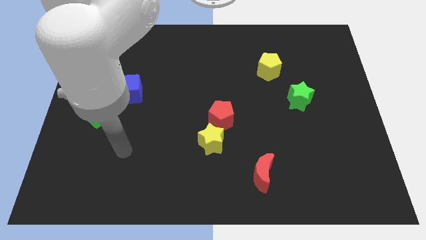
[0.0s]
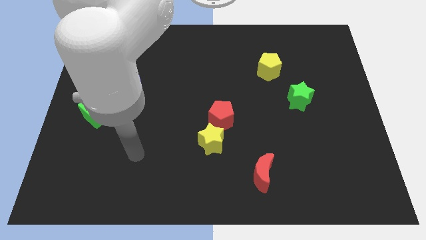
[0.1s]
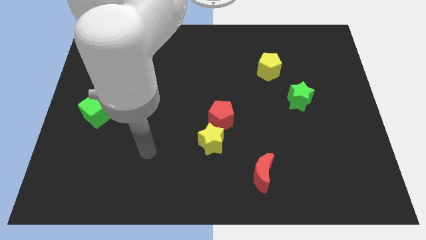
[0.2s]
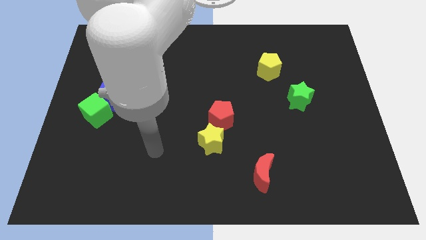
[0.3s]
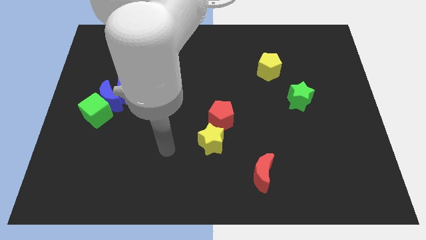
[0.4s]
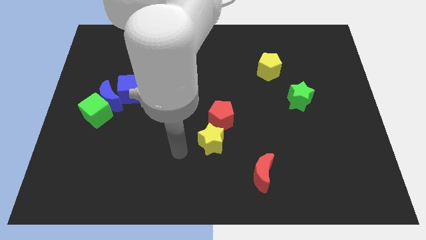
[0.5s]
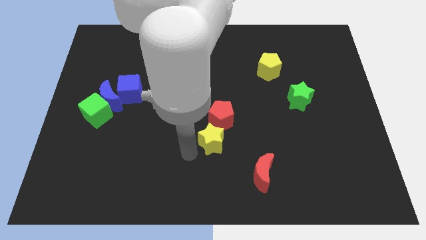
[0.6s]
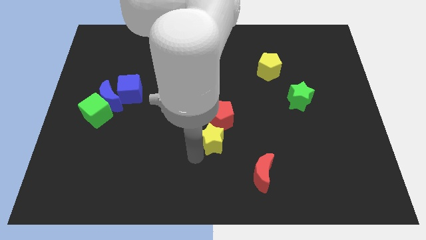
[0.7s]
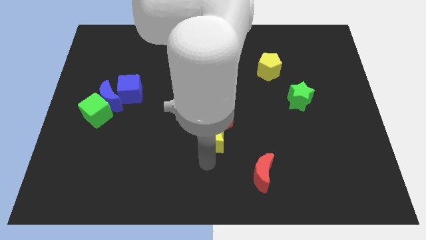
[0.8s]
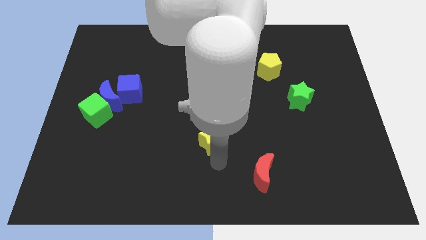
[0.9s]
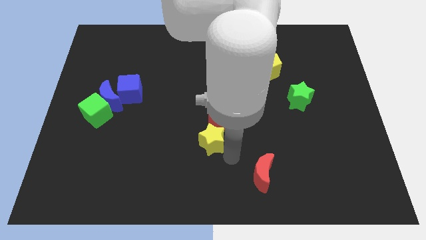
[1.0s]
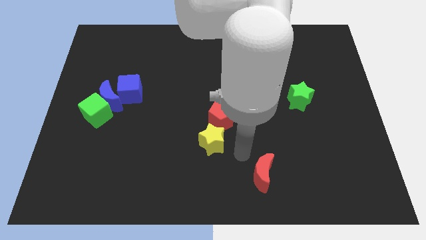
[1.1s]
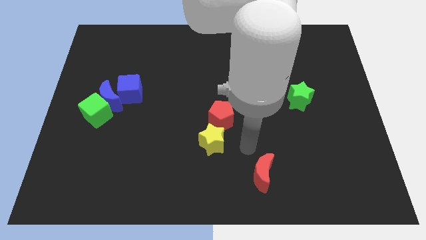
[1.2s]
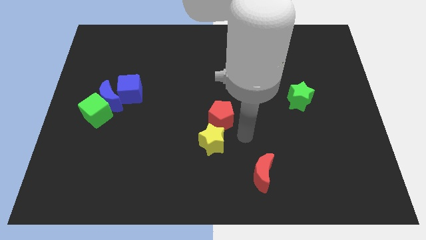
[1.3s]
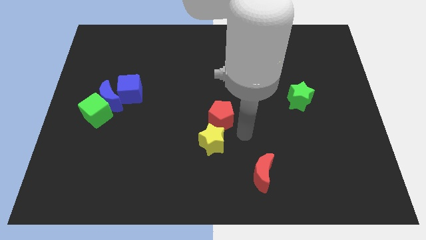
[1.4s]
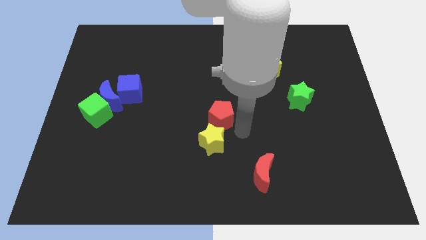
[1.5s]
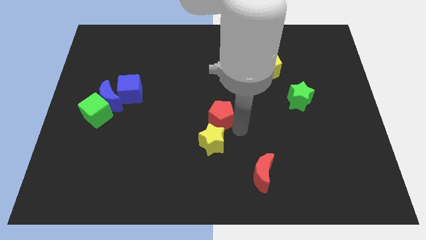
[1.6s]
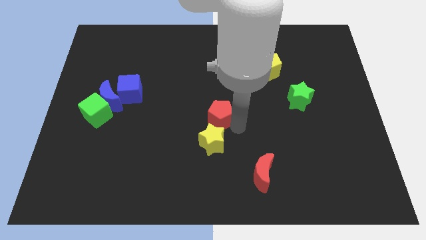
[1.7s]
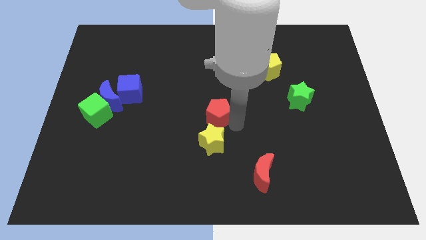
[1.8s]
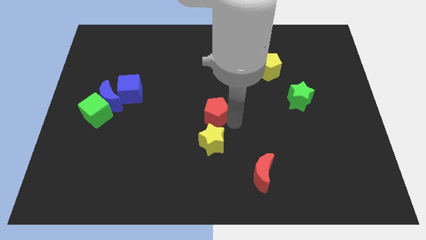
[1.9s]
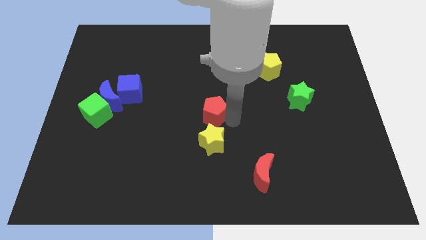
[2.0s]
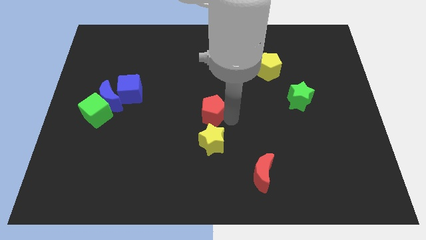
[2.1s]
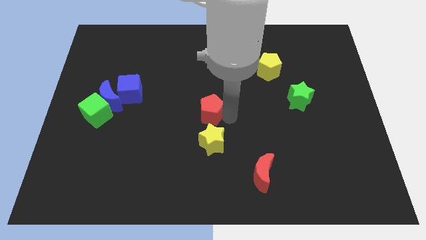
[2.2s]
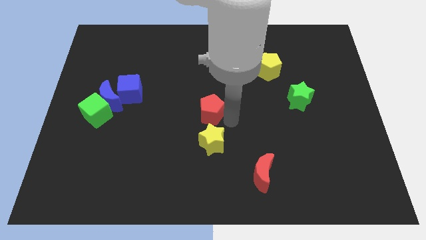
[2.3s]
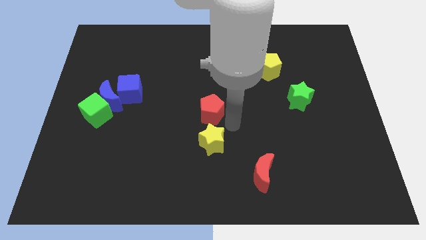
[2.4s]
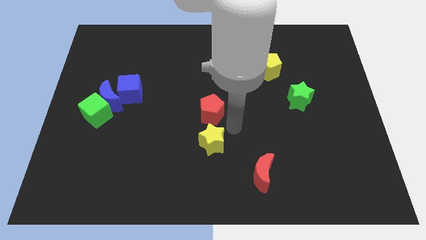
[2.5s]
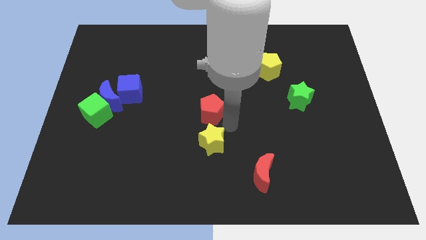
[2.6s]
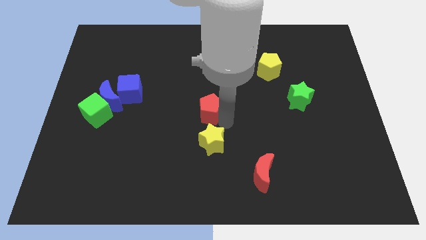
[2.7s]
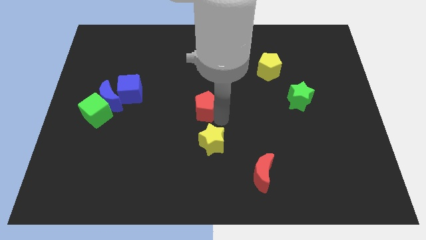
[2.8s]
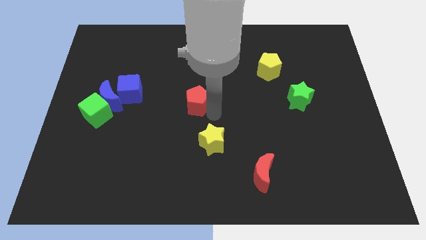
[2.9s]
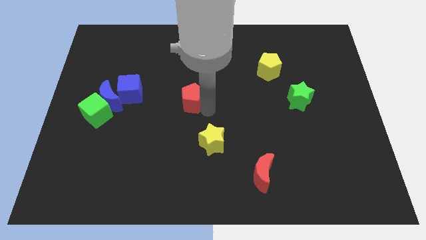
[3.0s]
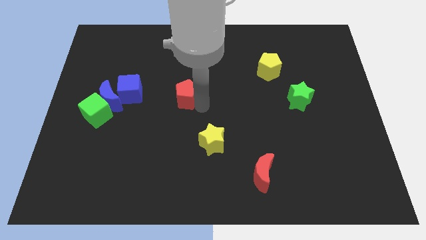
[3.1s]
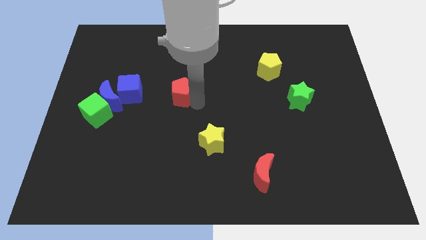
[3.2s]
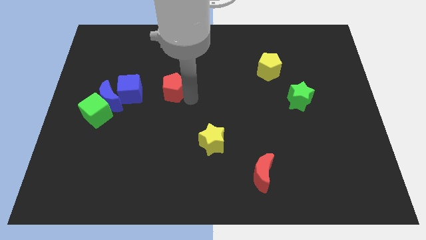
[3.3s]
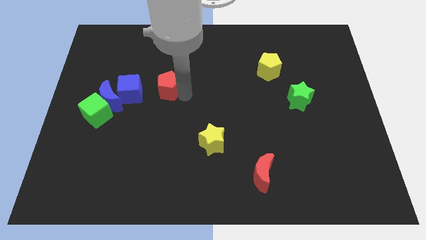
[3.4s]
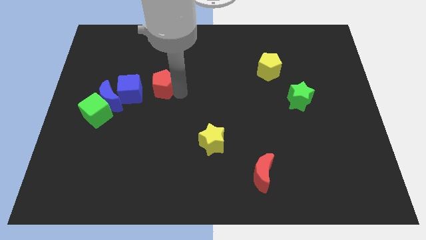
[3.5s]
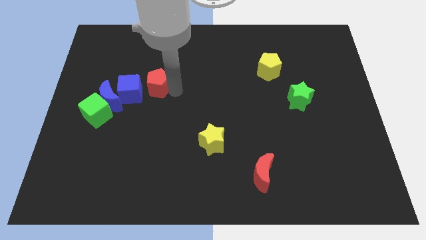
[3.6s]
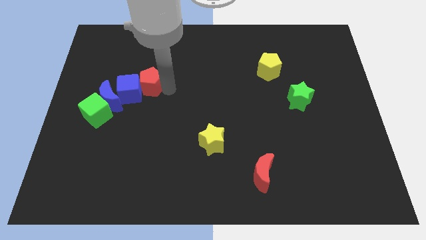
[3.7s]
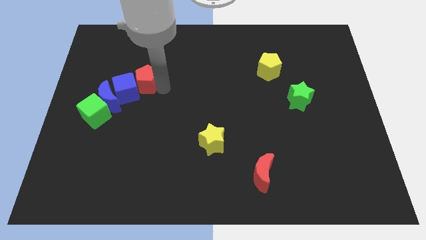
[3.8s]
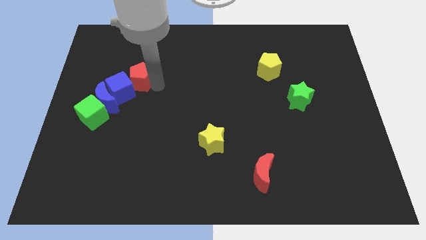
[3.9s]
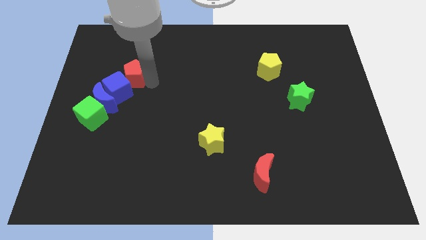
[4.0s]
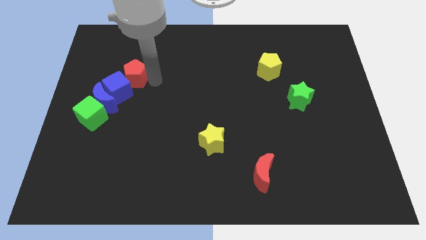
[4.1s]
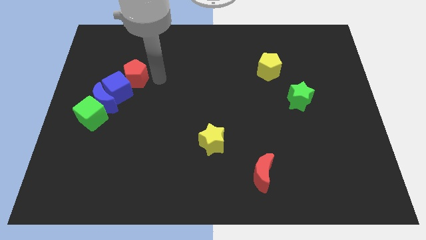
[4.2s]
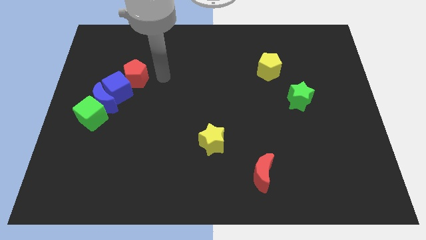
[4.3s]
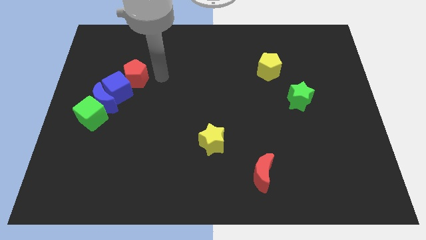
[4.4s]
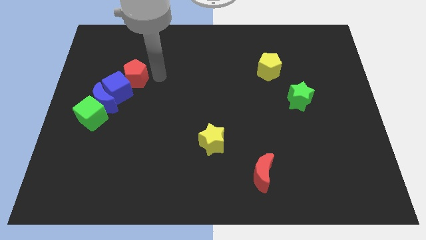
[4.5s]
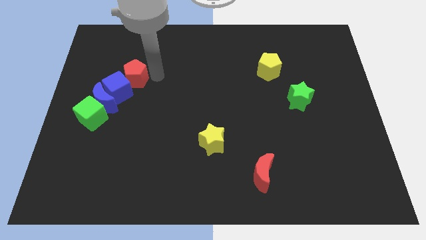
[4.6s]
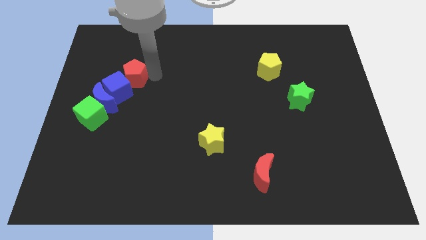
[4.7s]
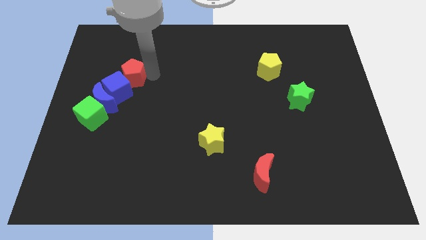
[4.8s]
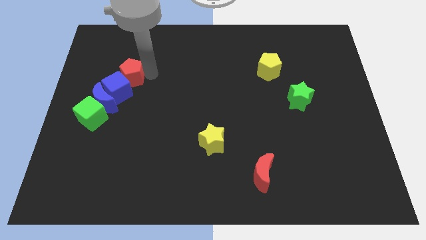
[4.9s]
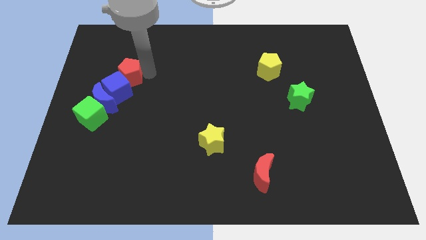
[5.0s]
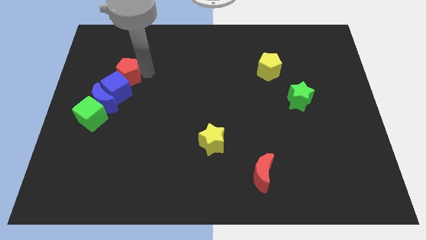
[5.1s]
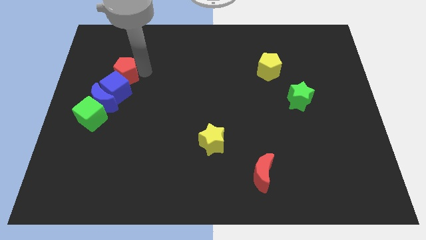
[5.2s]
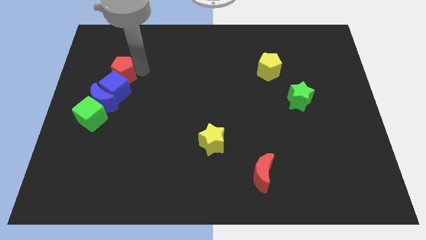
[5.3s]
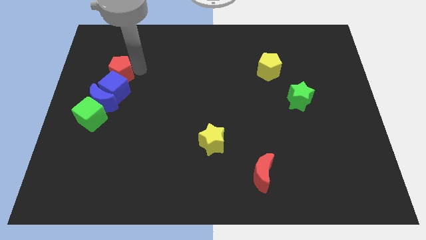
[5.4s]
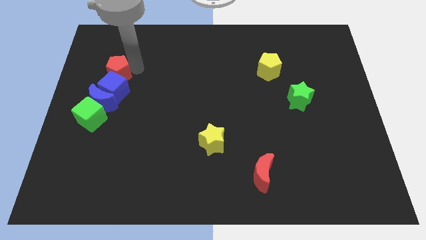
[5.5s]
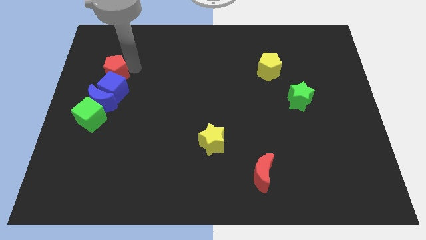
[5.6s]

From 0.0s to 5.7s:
push the red pentagon to the top of the green cube

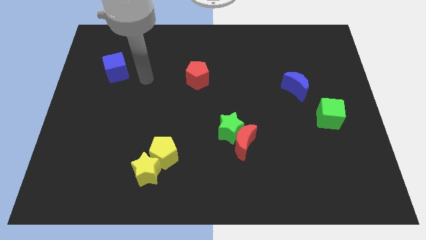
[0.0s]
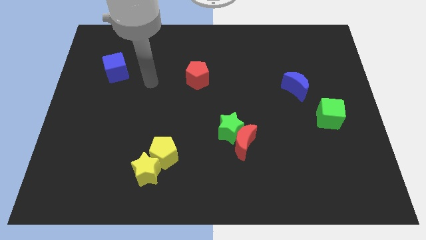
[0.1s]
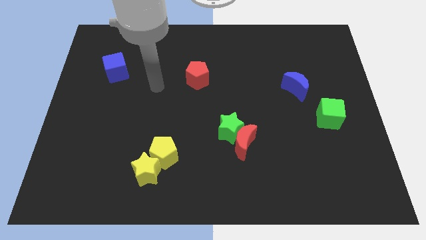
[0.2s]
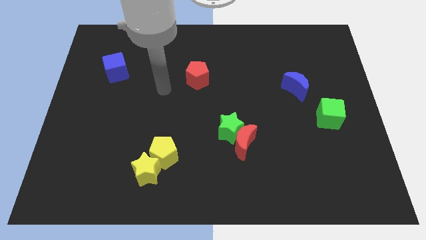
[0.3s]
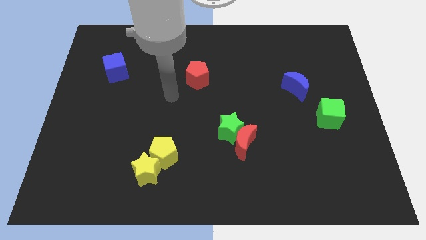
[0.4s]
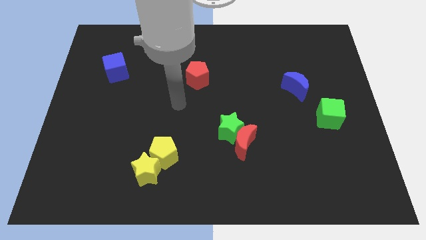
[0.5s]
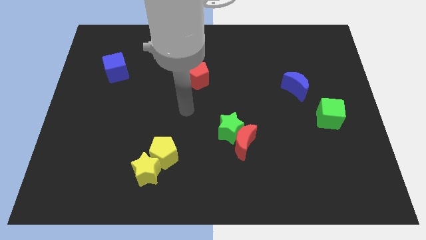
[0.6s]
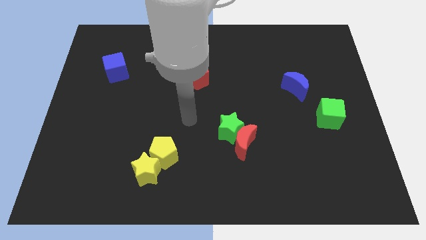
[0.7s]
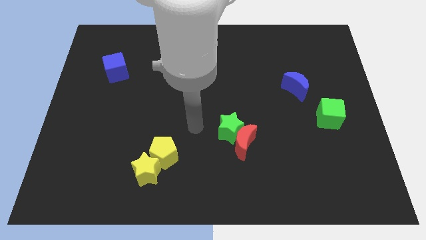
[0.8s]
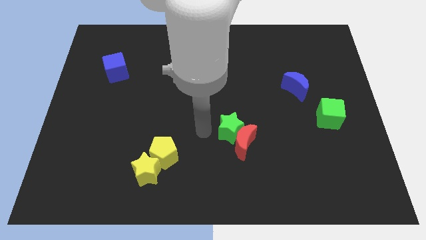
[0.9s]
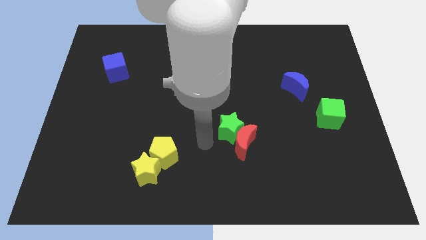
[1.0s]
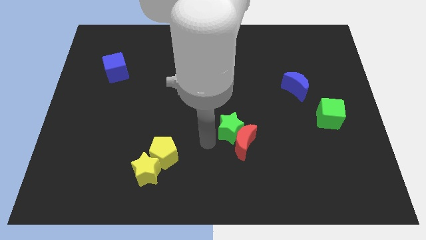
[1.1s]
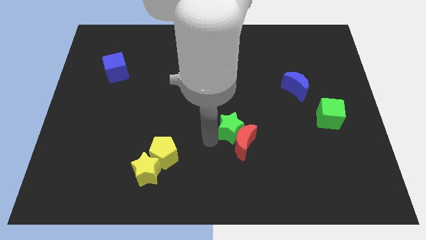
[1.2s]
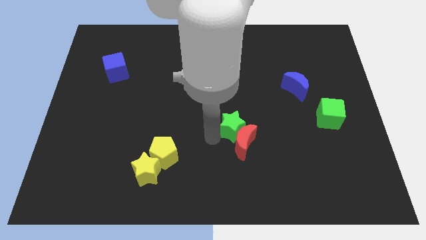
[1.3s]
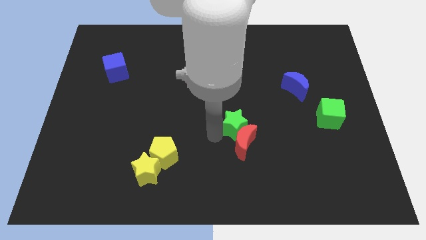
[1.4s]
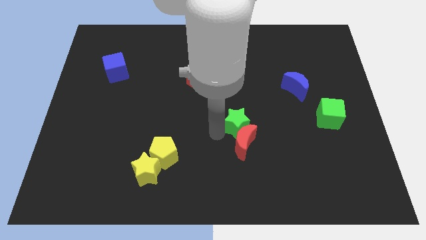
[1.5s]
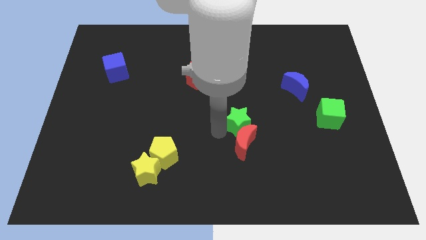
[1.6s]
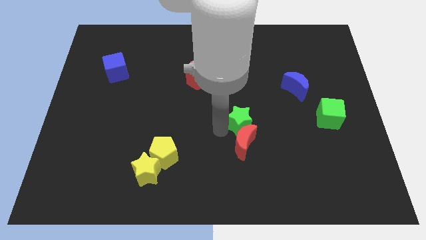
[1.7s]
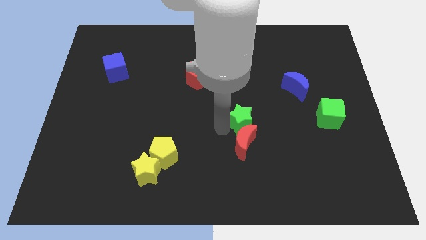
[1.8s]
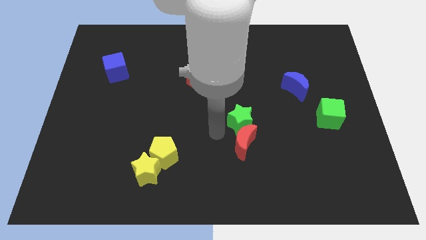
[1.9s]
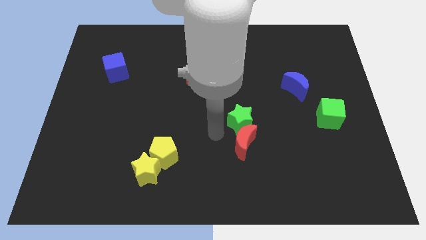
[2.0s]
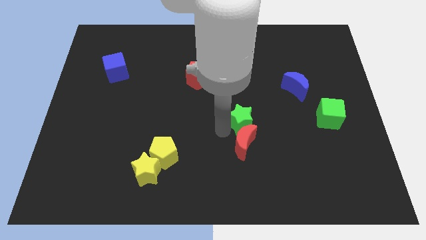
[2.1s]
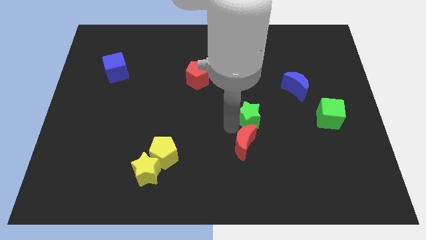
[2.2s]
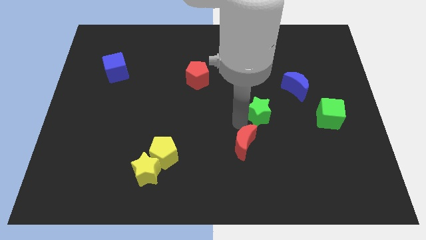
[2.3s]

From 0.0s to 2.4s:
push the green star diagonally down and to the left of the blue moon
